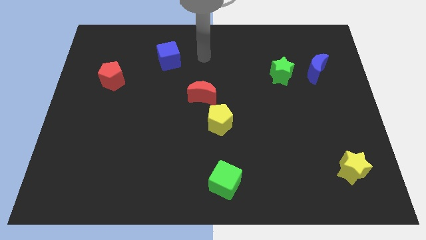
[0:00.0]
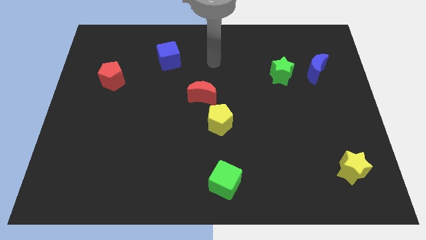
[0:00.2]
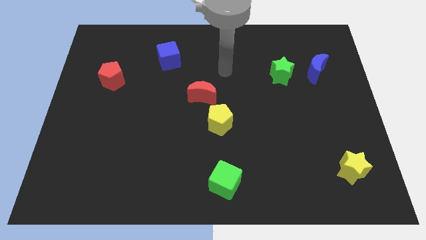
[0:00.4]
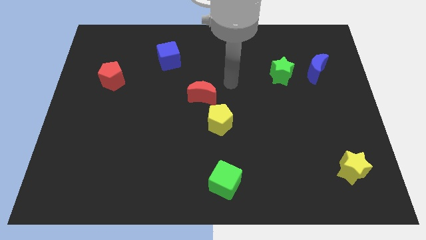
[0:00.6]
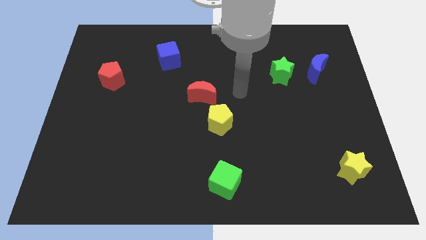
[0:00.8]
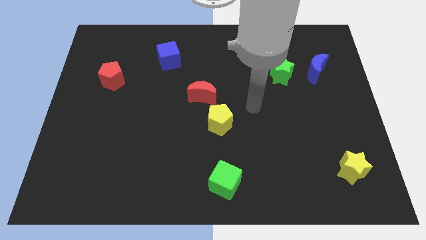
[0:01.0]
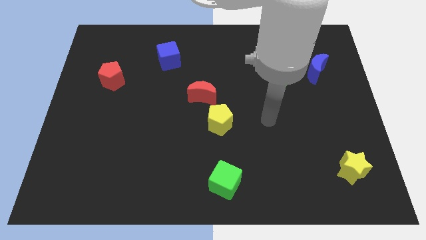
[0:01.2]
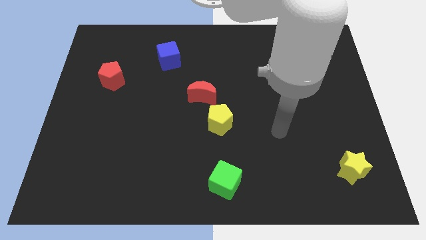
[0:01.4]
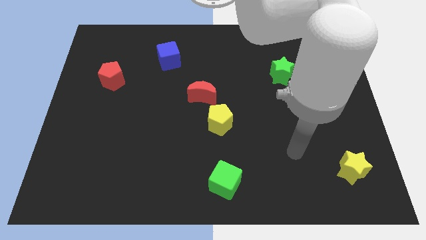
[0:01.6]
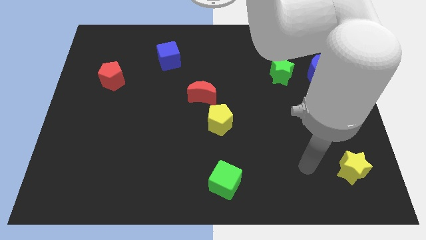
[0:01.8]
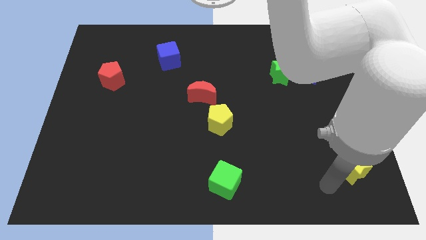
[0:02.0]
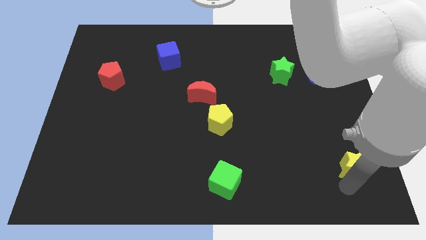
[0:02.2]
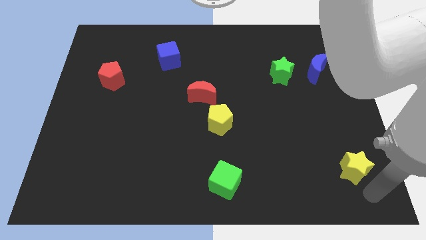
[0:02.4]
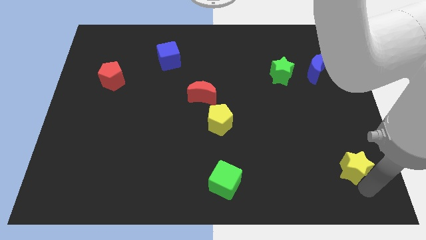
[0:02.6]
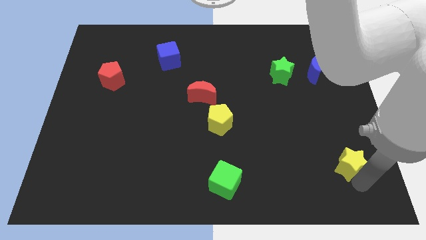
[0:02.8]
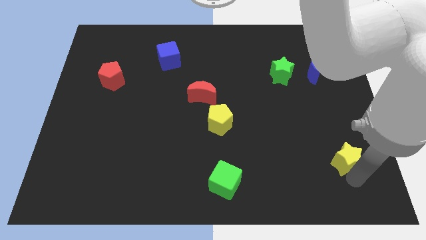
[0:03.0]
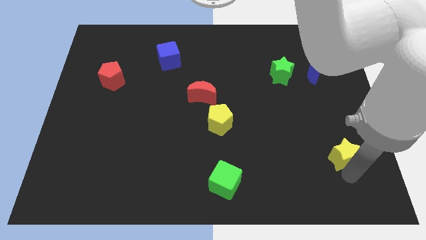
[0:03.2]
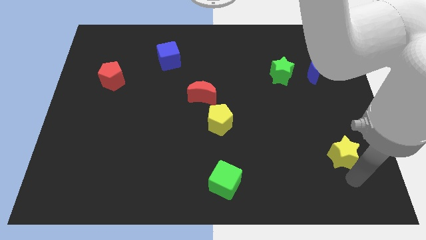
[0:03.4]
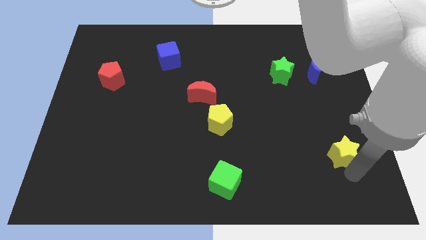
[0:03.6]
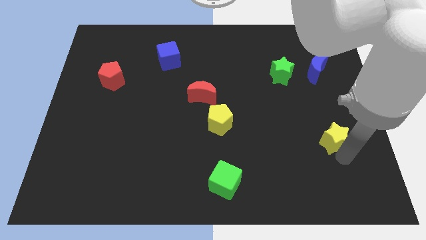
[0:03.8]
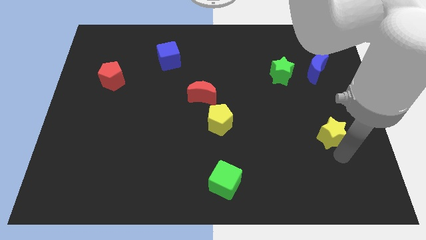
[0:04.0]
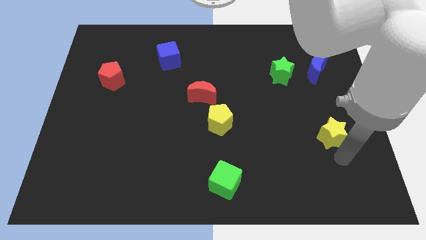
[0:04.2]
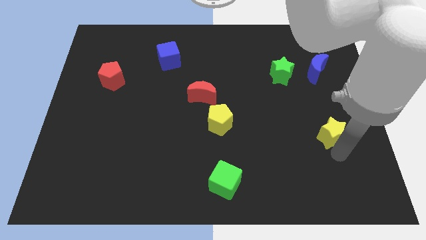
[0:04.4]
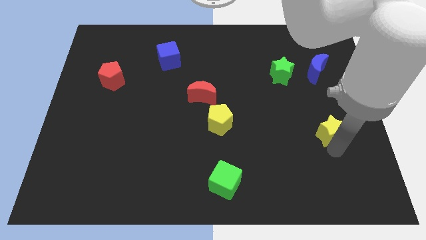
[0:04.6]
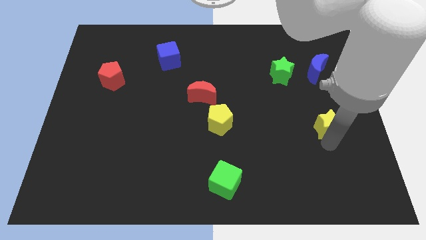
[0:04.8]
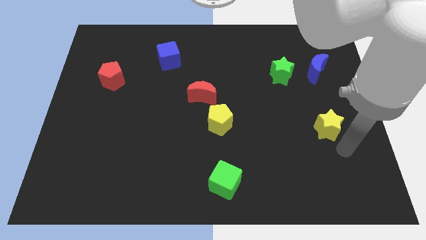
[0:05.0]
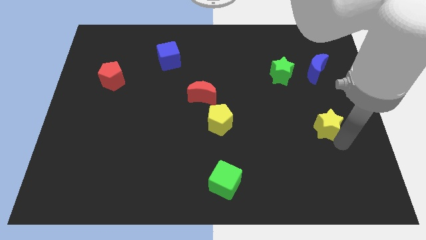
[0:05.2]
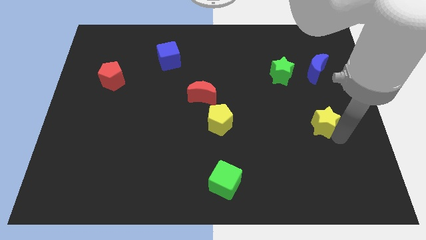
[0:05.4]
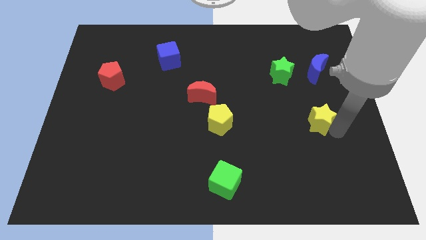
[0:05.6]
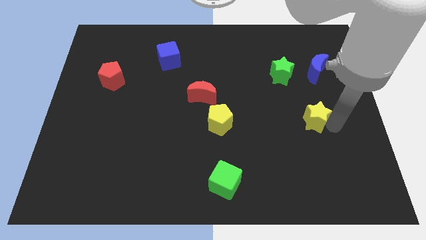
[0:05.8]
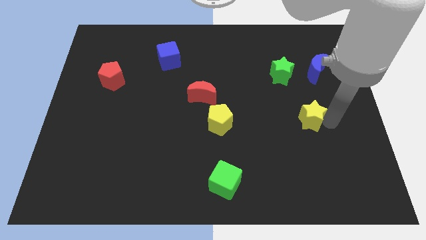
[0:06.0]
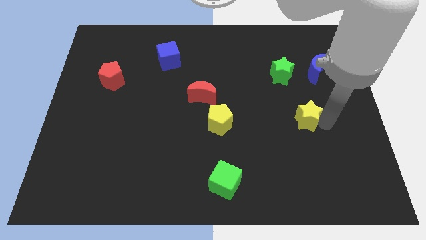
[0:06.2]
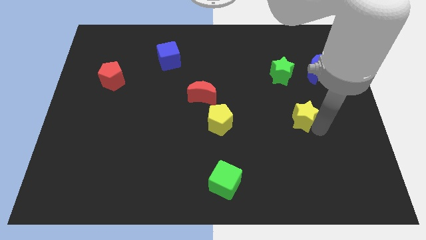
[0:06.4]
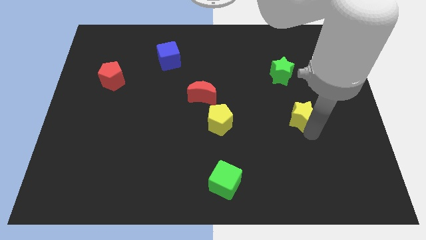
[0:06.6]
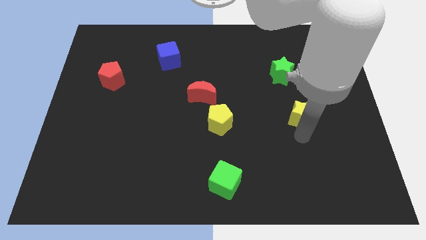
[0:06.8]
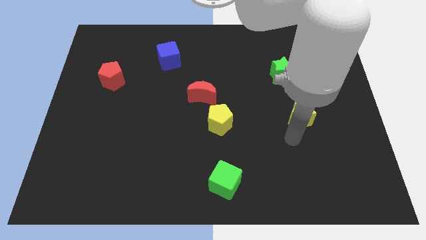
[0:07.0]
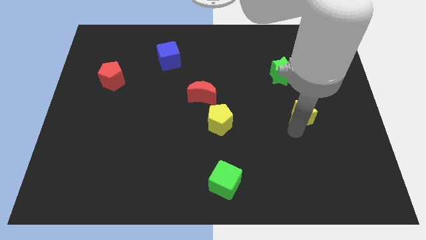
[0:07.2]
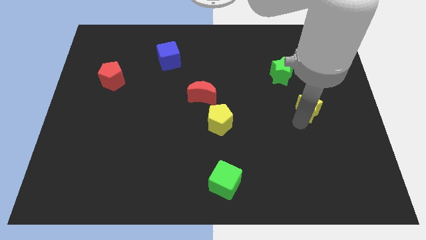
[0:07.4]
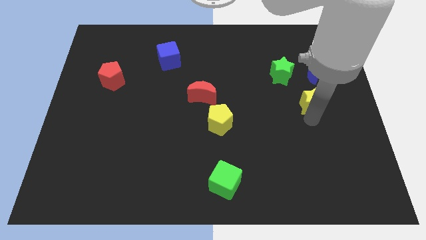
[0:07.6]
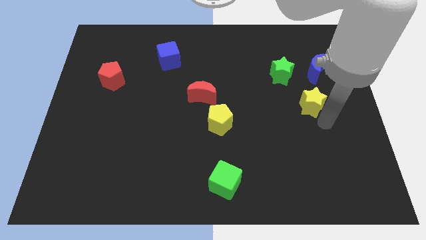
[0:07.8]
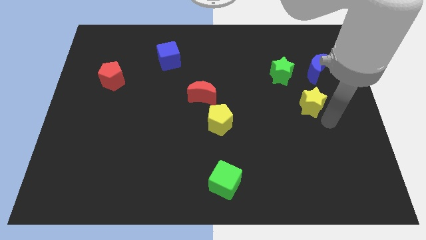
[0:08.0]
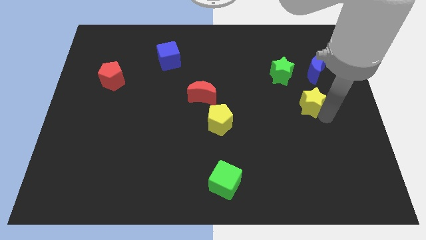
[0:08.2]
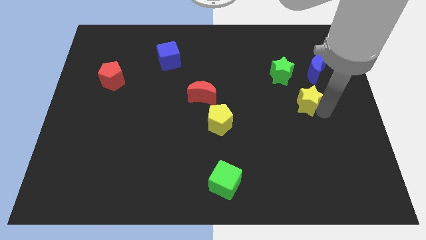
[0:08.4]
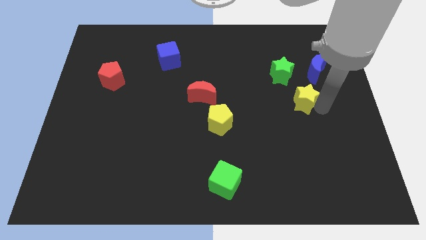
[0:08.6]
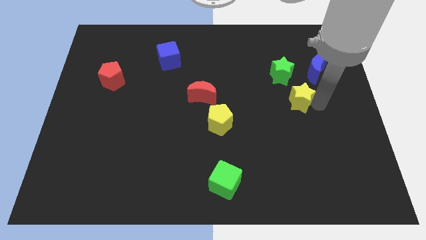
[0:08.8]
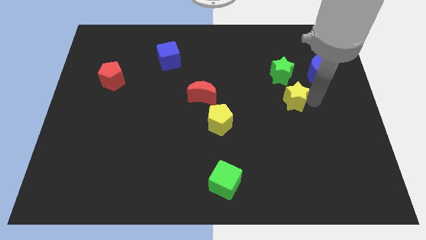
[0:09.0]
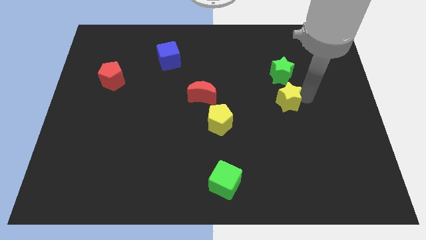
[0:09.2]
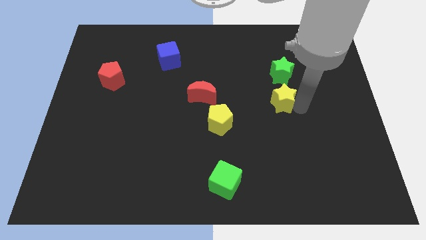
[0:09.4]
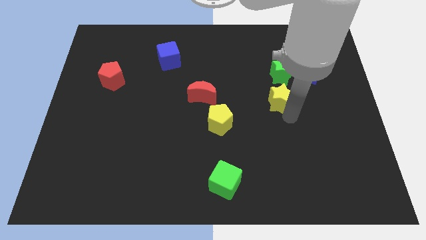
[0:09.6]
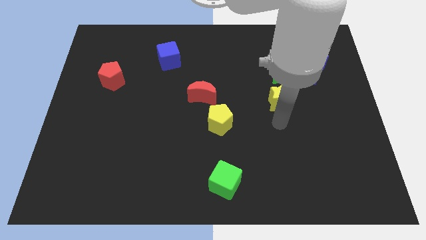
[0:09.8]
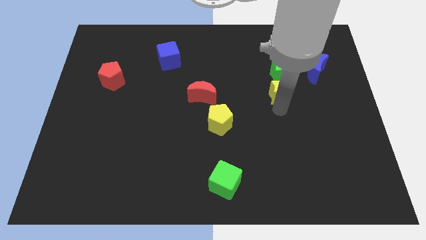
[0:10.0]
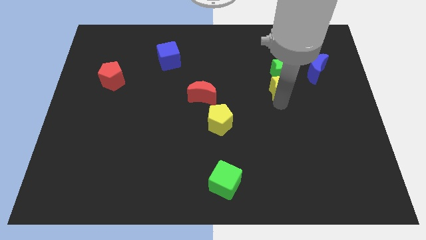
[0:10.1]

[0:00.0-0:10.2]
move the yellow star close to the green star

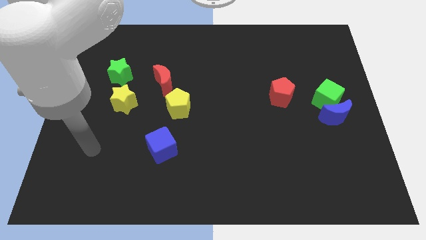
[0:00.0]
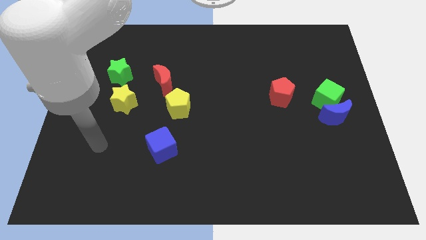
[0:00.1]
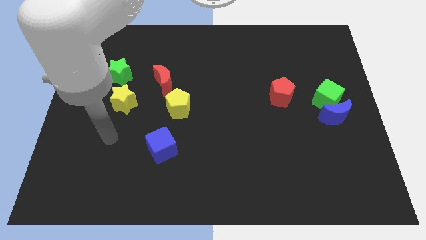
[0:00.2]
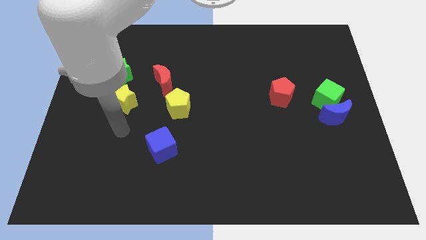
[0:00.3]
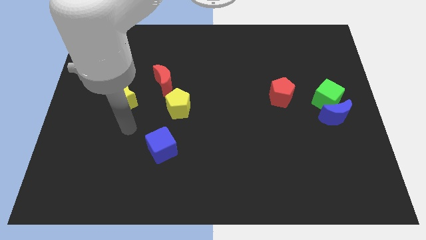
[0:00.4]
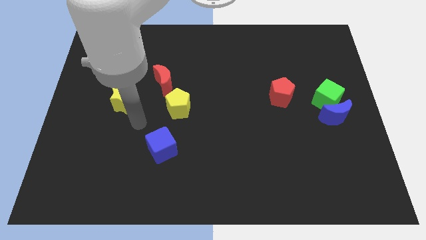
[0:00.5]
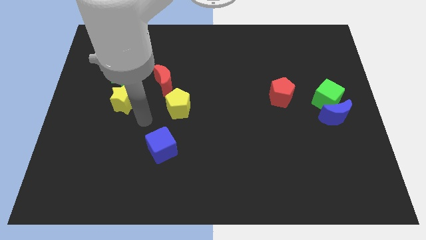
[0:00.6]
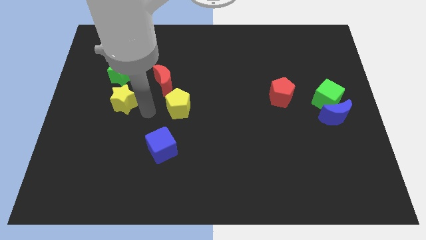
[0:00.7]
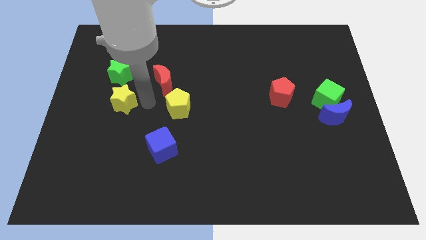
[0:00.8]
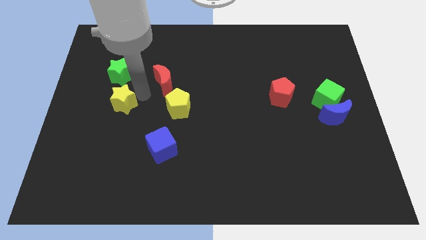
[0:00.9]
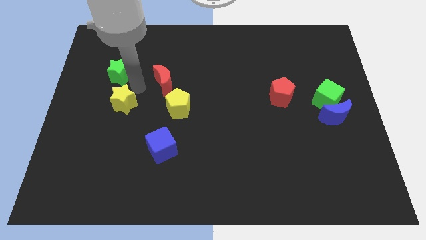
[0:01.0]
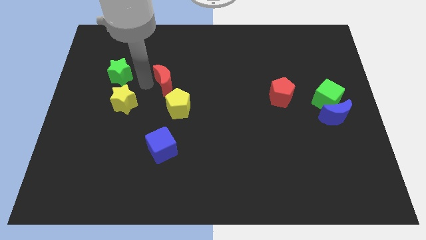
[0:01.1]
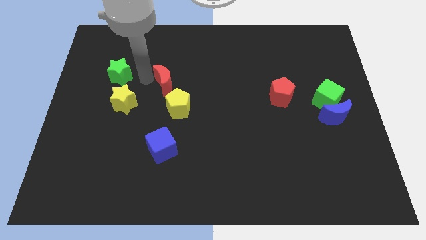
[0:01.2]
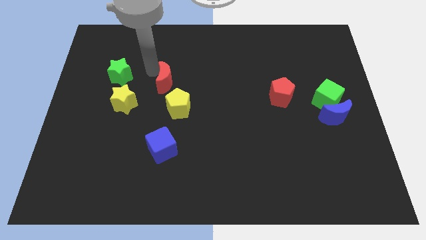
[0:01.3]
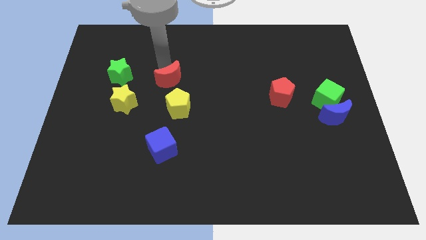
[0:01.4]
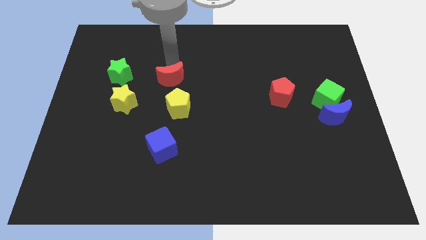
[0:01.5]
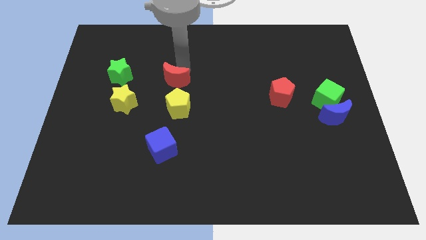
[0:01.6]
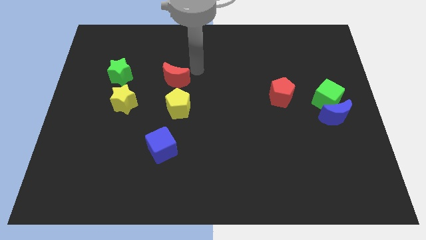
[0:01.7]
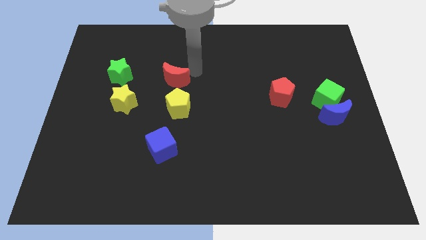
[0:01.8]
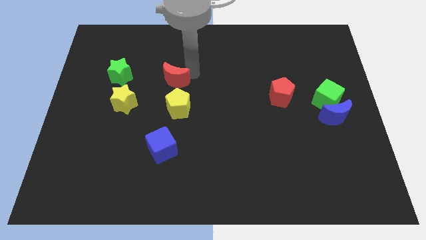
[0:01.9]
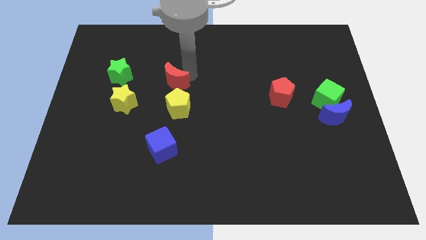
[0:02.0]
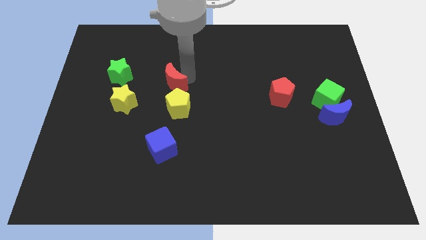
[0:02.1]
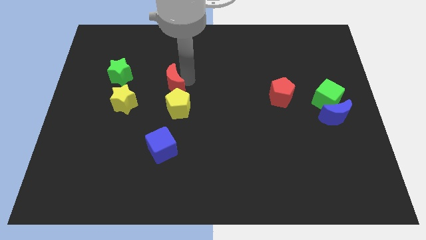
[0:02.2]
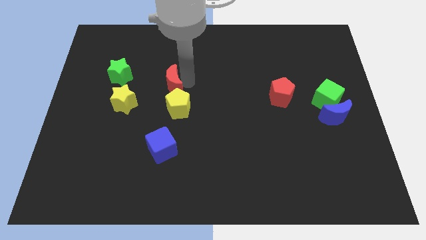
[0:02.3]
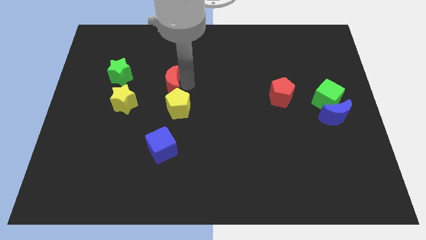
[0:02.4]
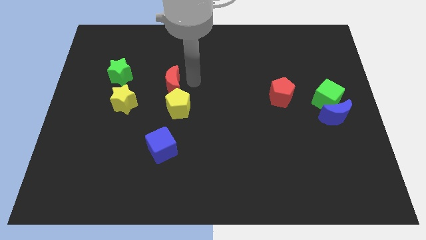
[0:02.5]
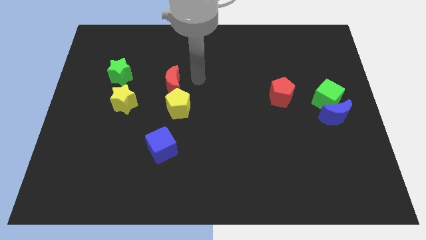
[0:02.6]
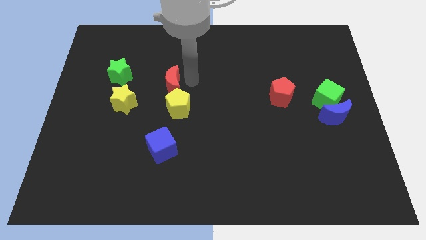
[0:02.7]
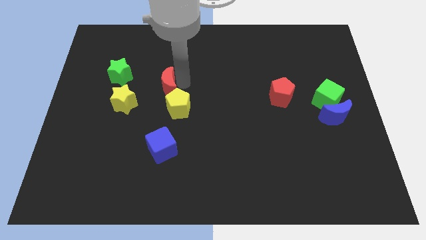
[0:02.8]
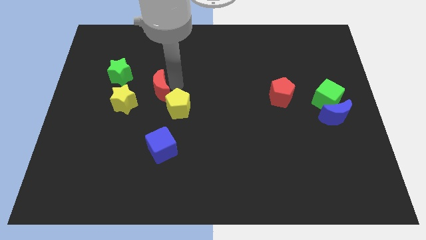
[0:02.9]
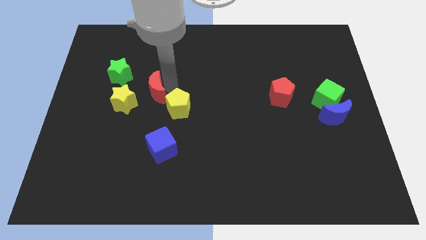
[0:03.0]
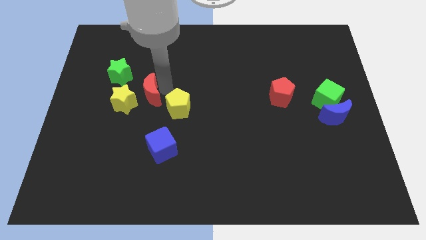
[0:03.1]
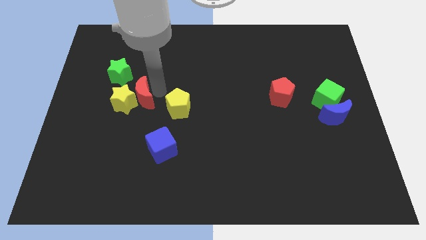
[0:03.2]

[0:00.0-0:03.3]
put the red moon close to the yellow star
